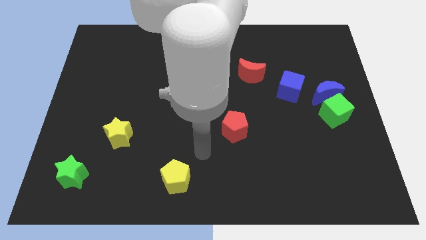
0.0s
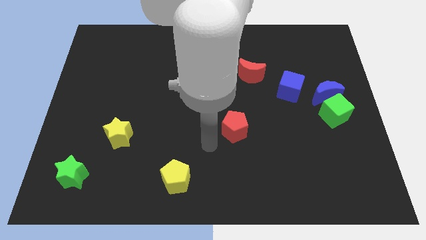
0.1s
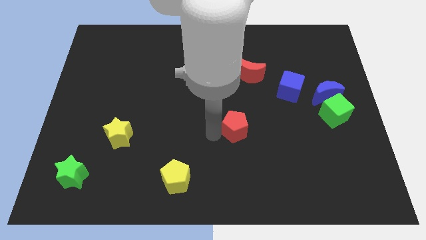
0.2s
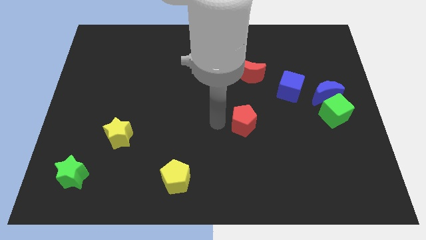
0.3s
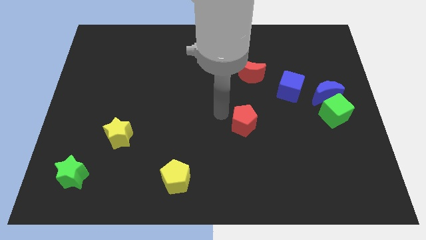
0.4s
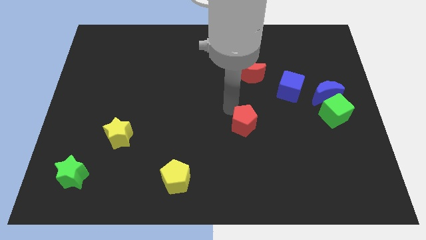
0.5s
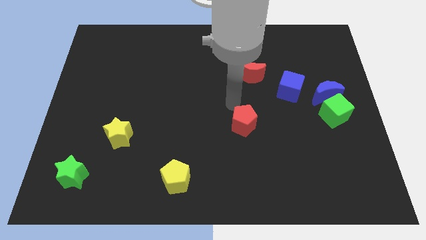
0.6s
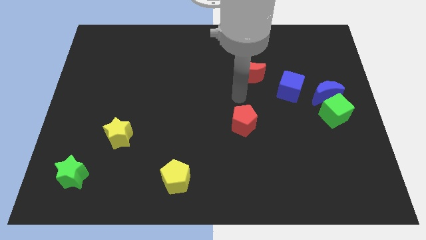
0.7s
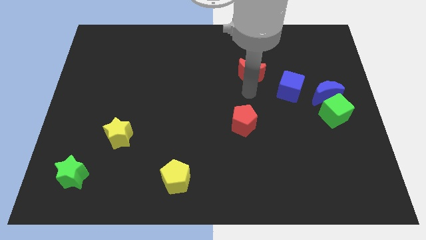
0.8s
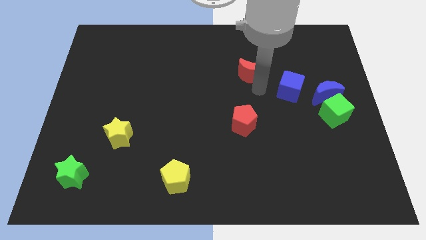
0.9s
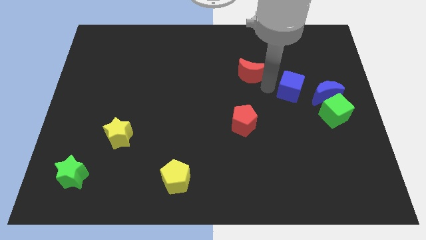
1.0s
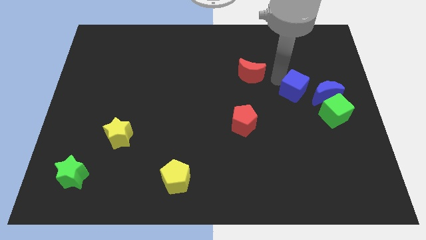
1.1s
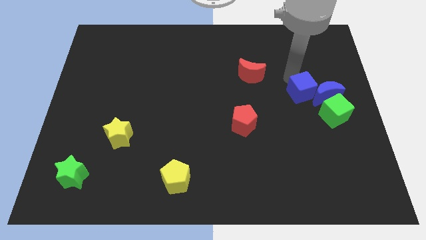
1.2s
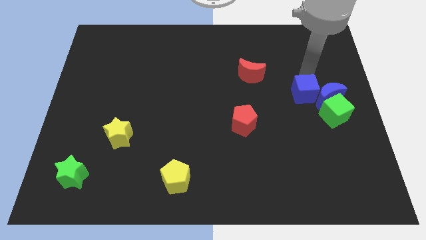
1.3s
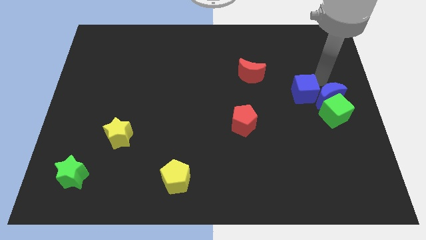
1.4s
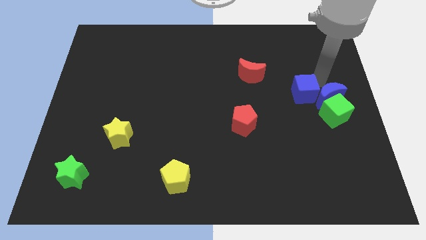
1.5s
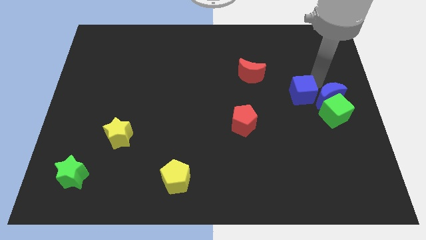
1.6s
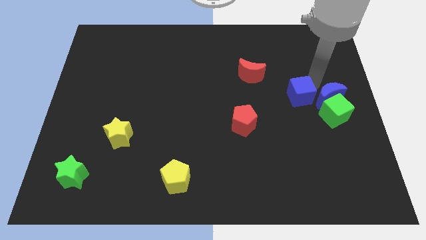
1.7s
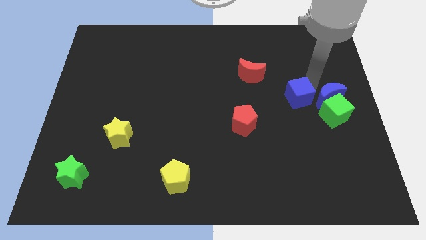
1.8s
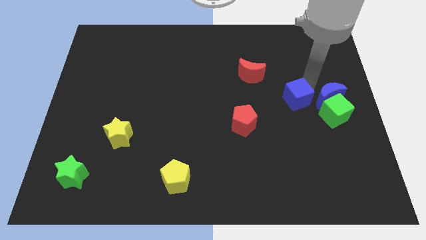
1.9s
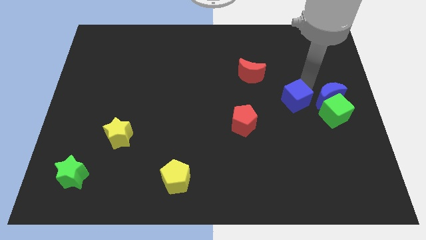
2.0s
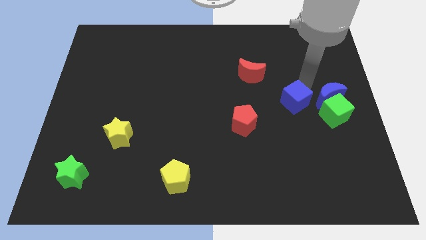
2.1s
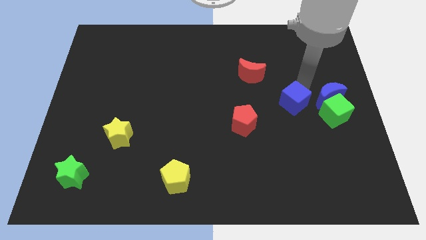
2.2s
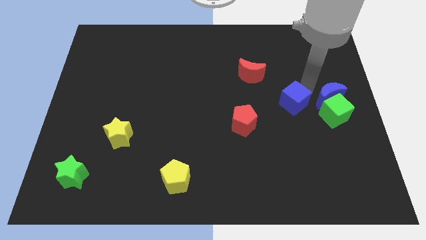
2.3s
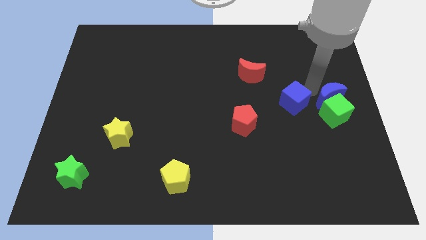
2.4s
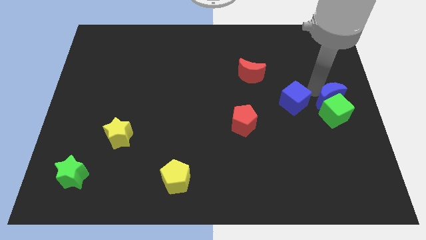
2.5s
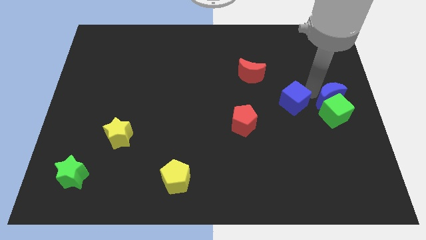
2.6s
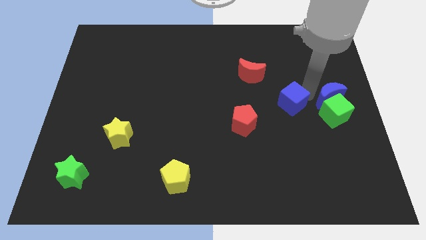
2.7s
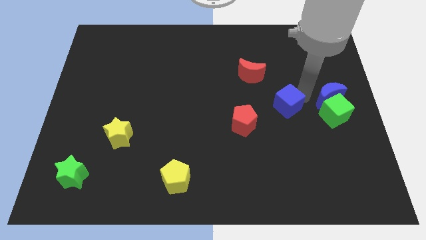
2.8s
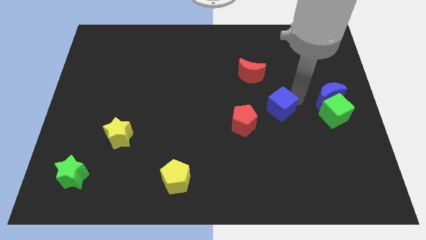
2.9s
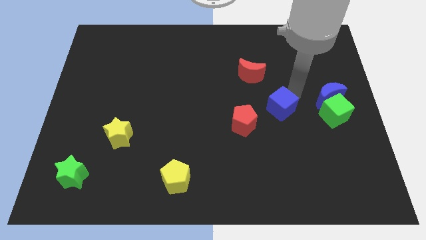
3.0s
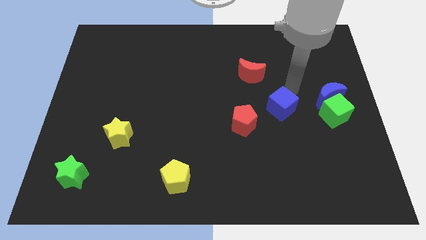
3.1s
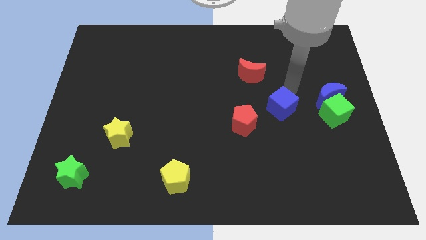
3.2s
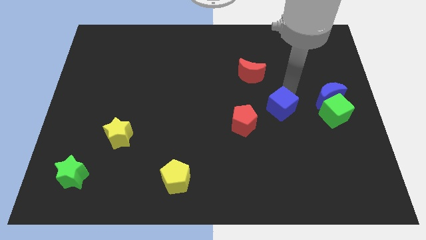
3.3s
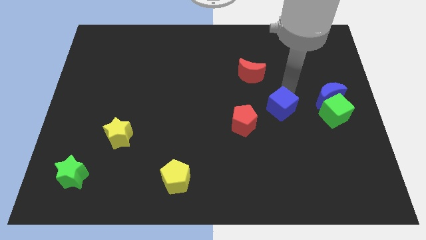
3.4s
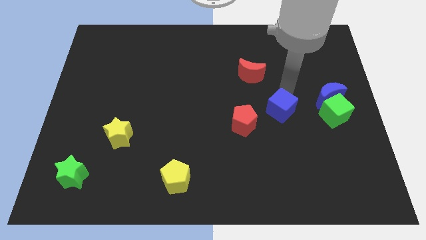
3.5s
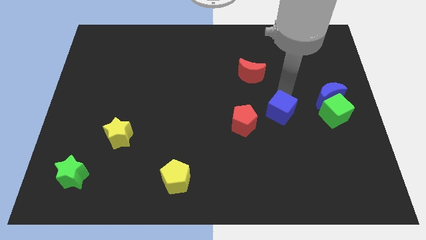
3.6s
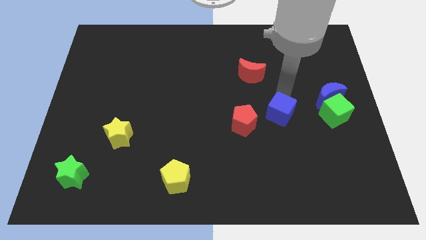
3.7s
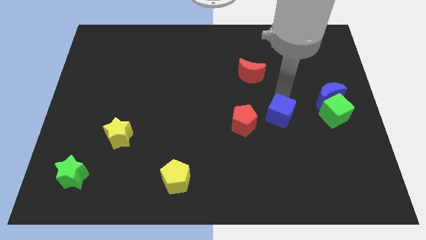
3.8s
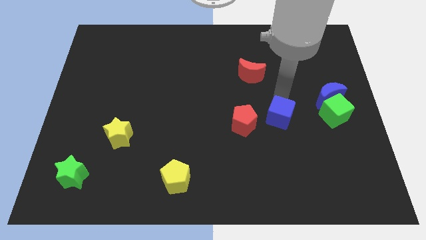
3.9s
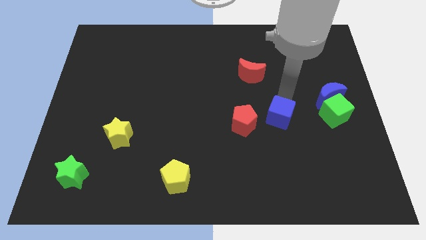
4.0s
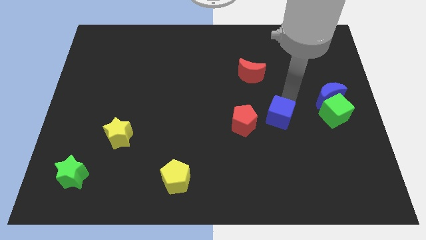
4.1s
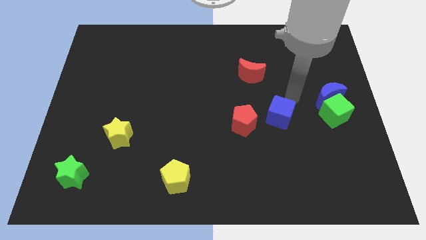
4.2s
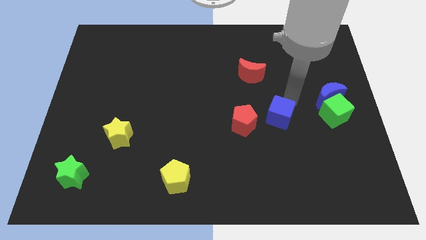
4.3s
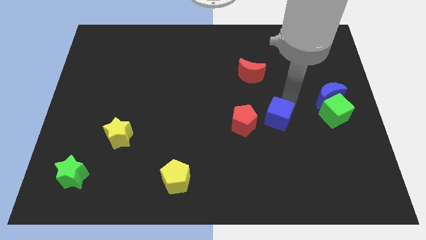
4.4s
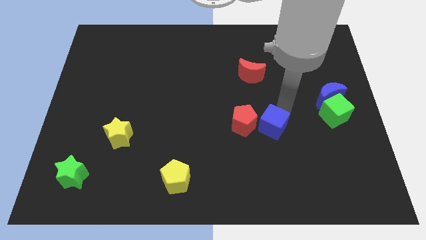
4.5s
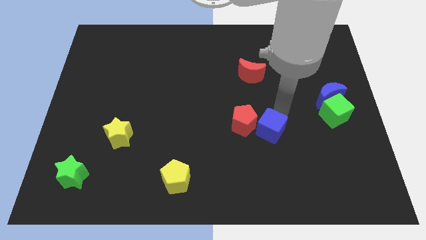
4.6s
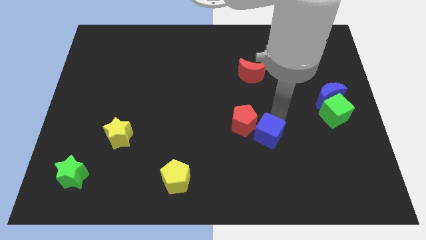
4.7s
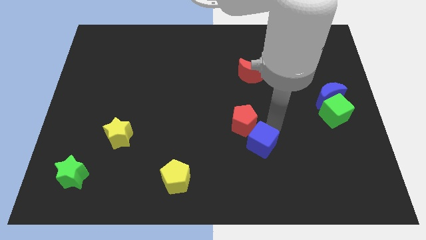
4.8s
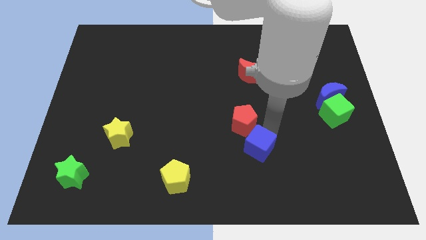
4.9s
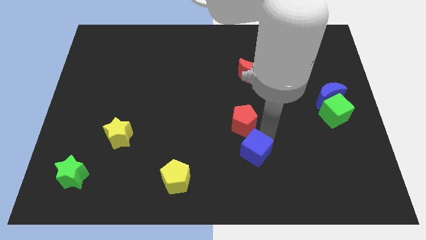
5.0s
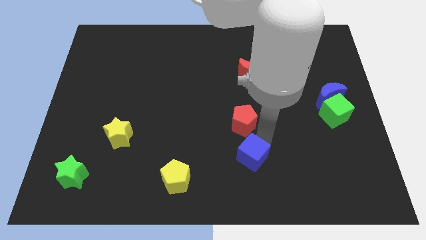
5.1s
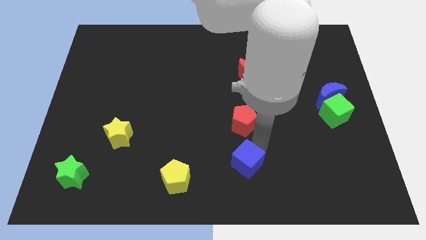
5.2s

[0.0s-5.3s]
slide the blue cube to the bottom side

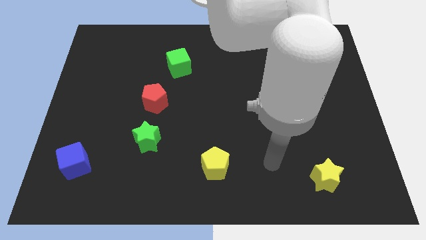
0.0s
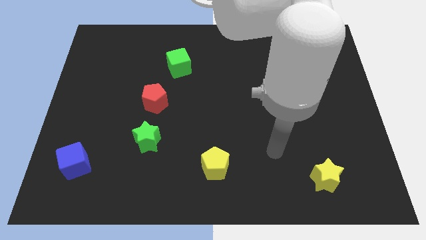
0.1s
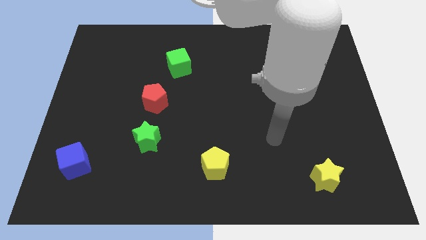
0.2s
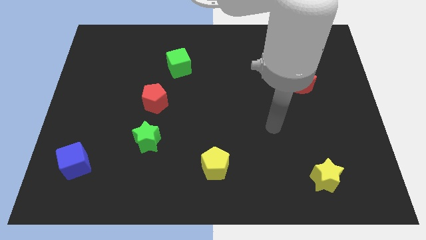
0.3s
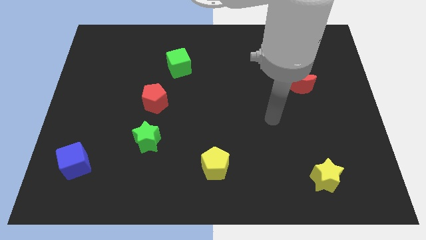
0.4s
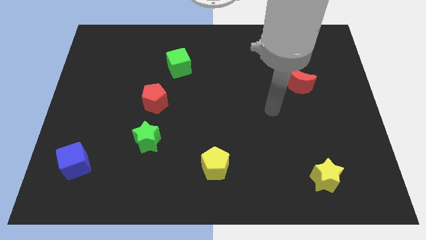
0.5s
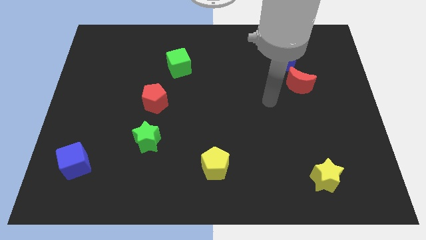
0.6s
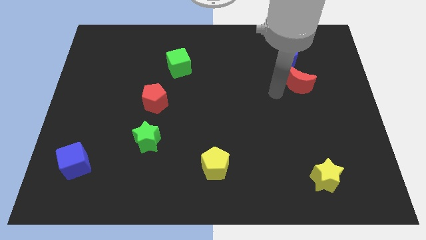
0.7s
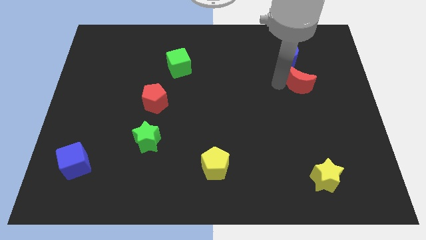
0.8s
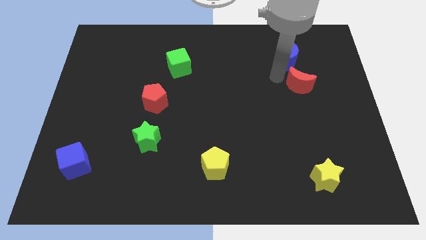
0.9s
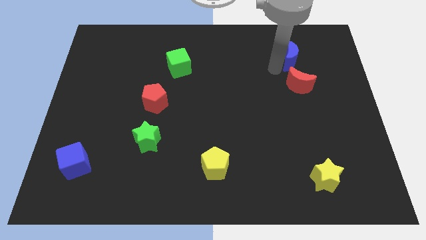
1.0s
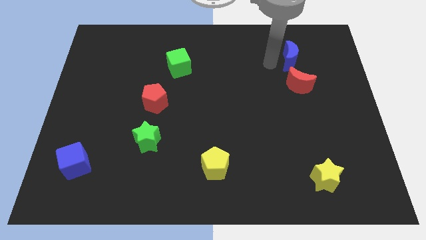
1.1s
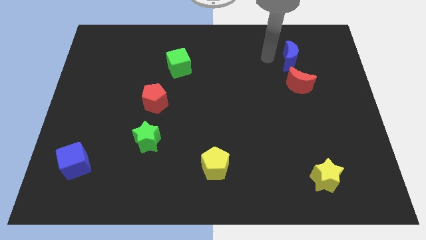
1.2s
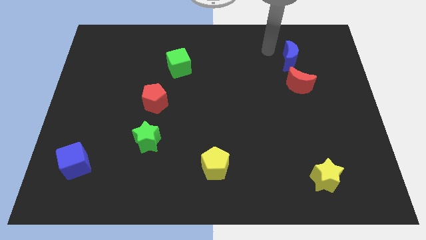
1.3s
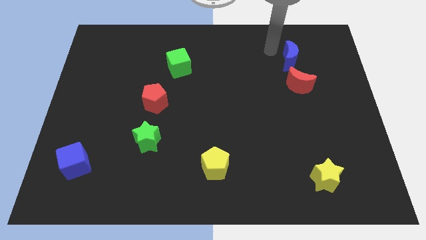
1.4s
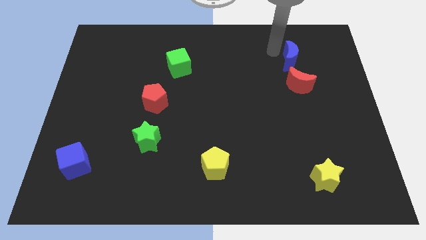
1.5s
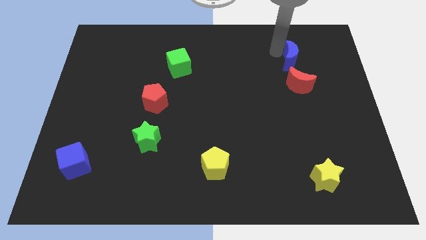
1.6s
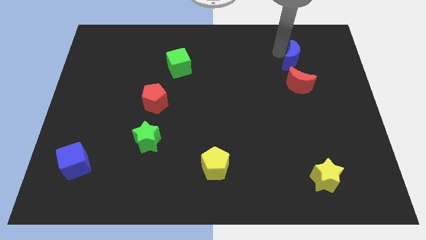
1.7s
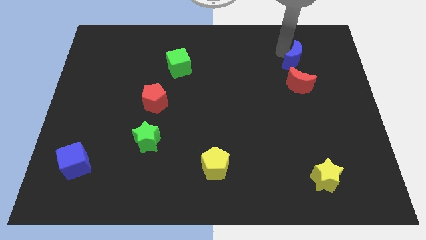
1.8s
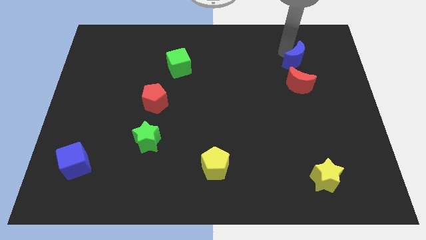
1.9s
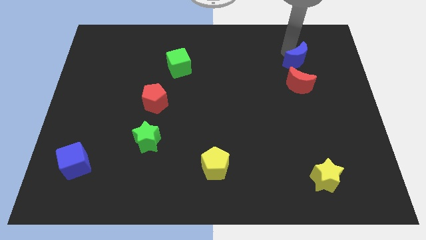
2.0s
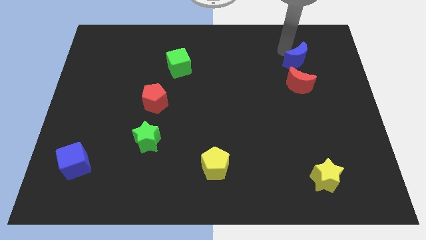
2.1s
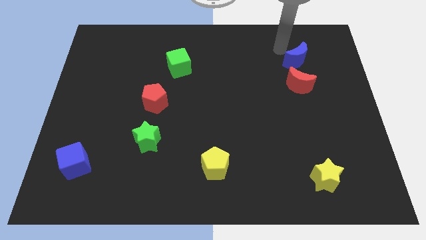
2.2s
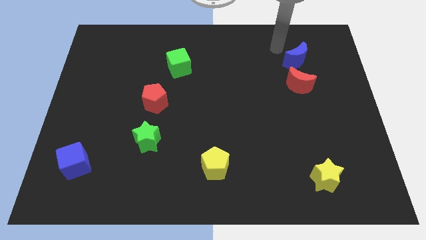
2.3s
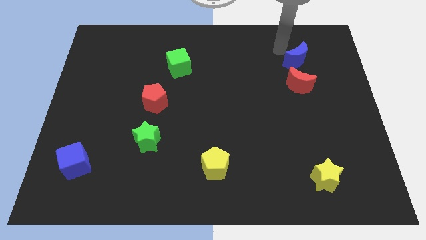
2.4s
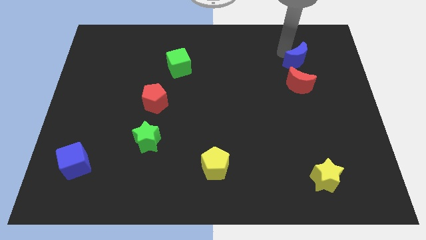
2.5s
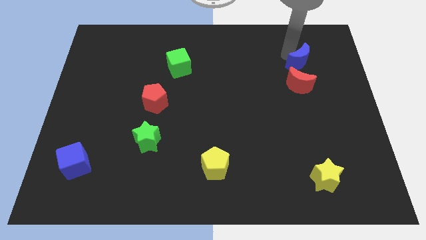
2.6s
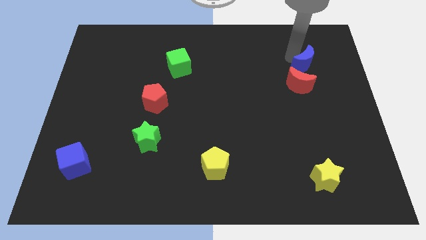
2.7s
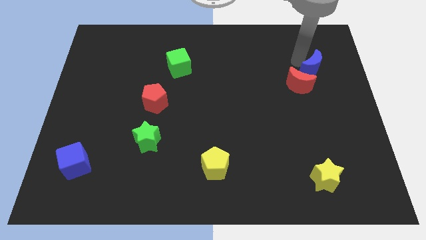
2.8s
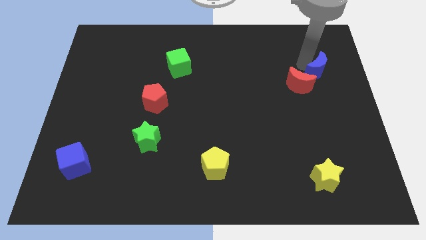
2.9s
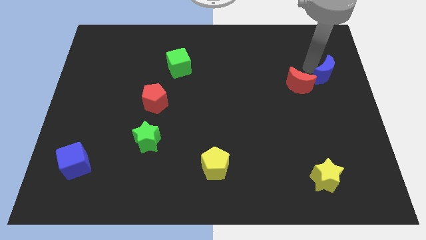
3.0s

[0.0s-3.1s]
move the blue moon to the right side
